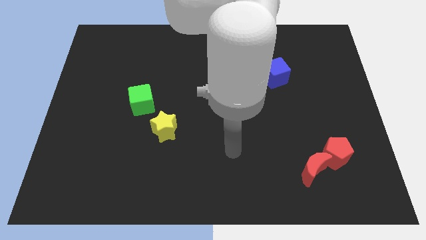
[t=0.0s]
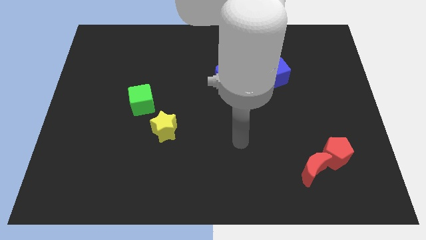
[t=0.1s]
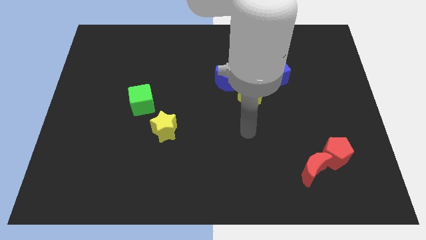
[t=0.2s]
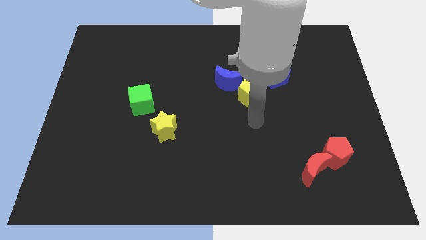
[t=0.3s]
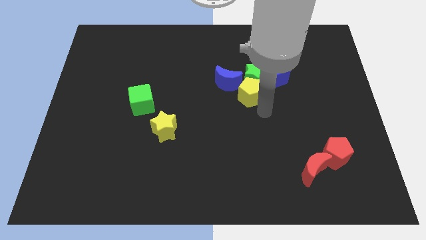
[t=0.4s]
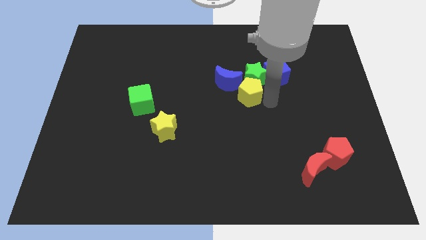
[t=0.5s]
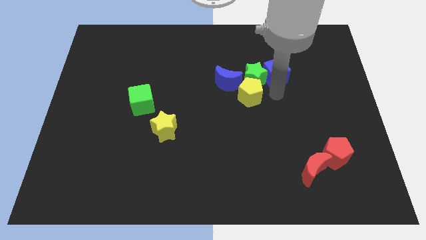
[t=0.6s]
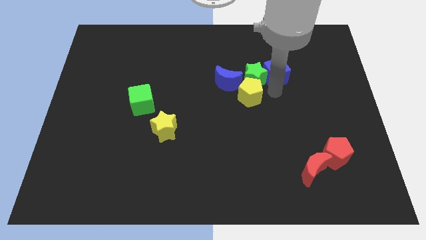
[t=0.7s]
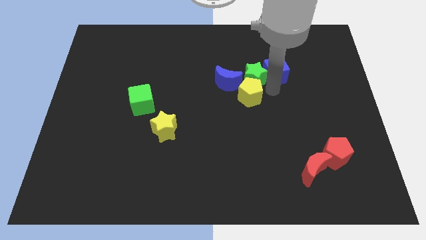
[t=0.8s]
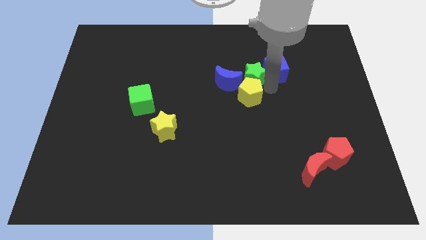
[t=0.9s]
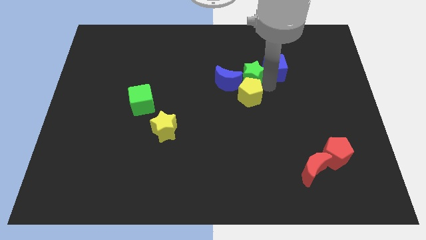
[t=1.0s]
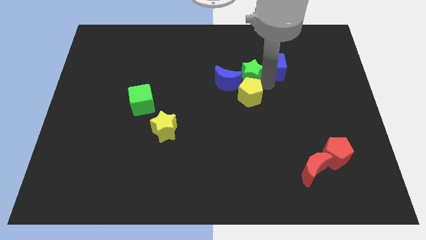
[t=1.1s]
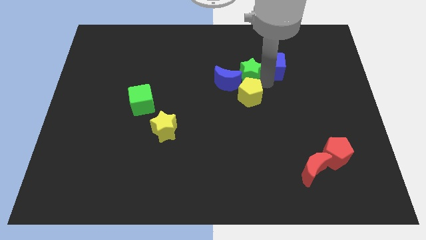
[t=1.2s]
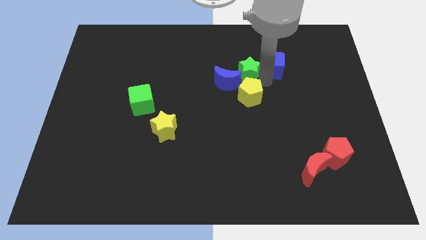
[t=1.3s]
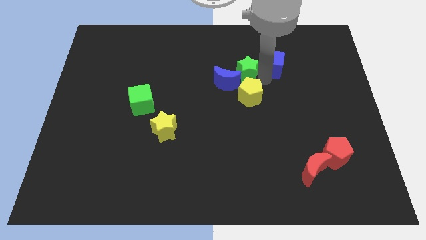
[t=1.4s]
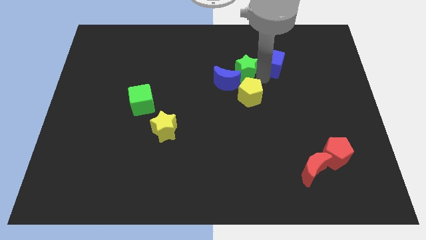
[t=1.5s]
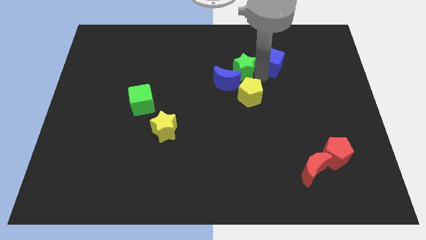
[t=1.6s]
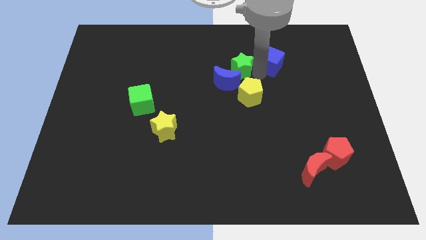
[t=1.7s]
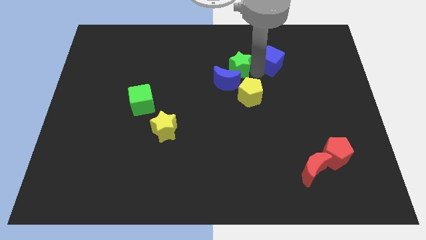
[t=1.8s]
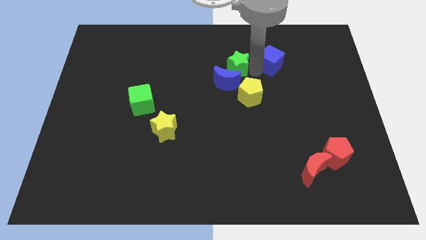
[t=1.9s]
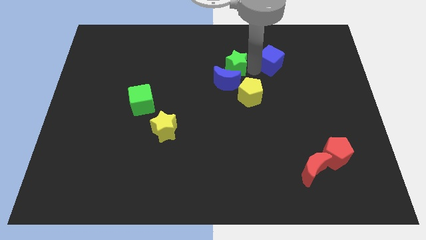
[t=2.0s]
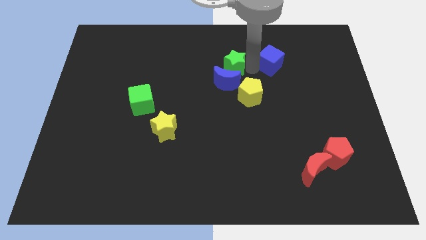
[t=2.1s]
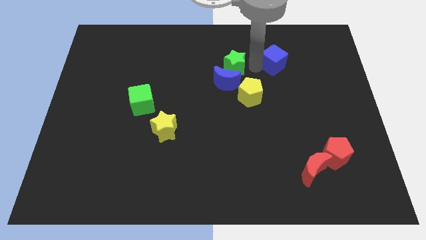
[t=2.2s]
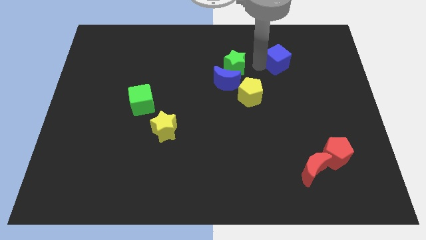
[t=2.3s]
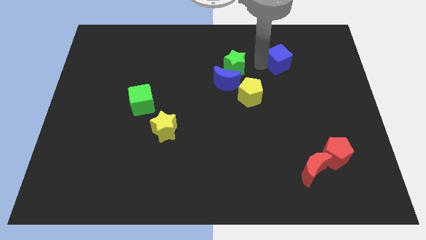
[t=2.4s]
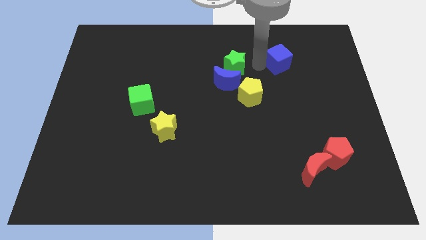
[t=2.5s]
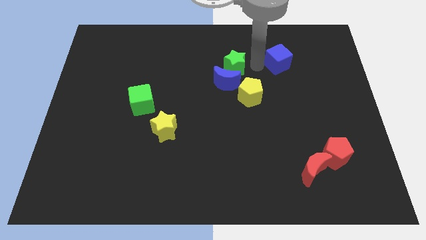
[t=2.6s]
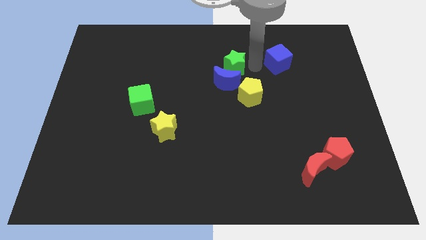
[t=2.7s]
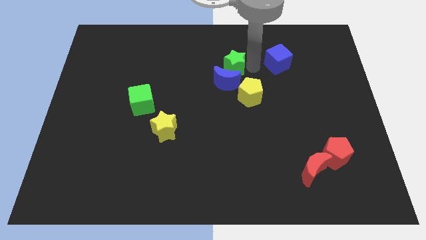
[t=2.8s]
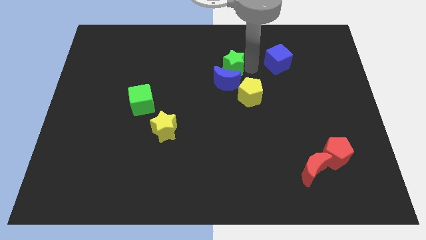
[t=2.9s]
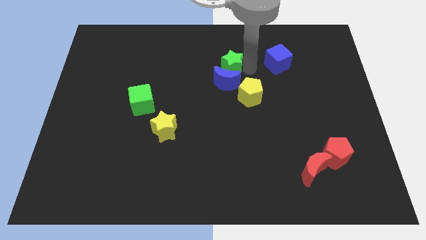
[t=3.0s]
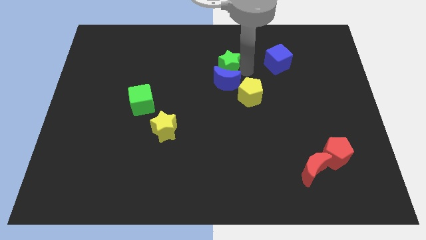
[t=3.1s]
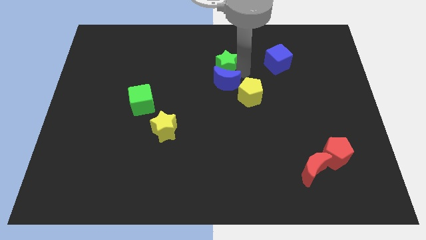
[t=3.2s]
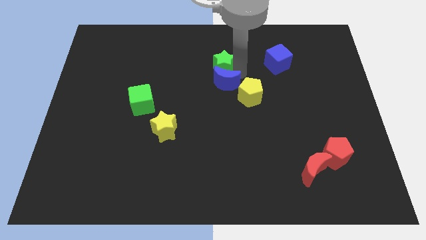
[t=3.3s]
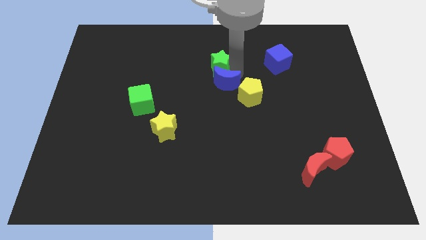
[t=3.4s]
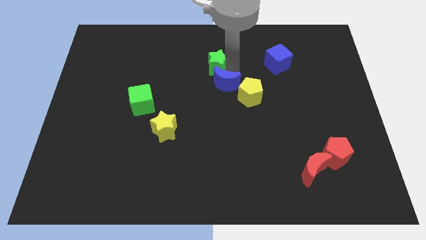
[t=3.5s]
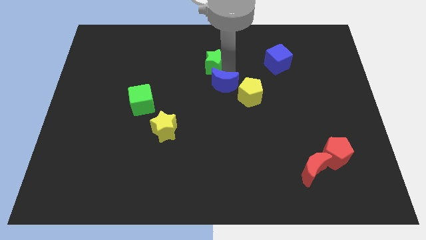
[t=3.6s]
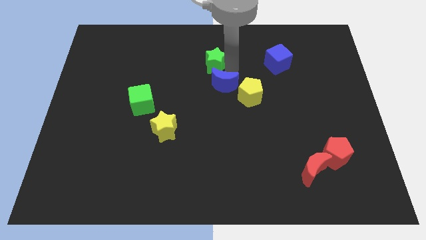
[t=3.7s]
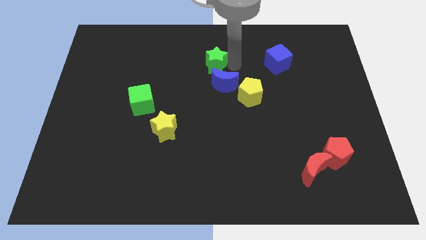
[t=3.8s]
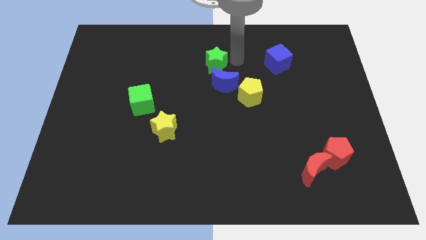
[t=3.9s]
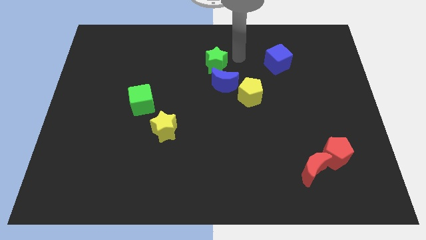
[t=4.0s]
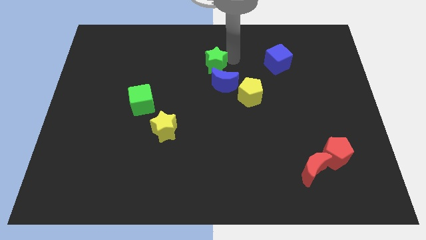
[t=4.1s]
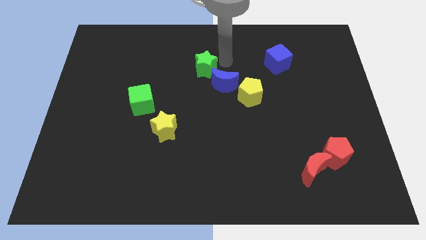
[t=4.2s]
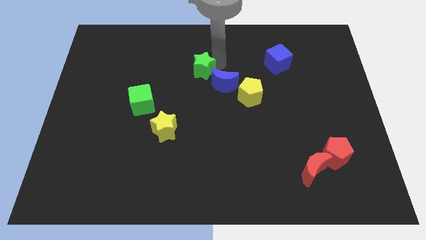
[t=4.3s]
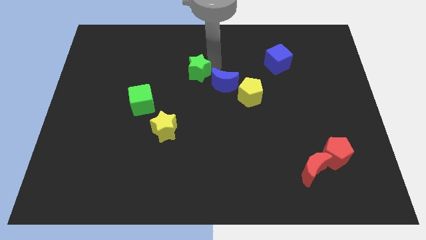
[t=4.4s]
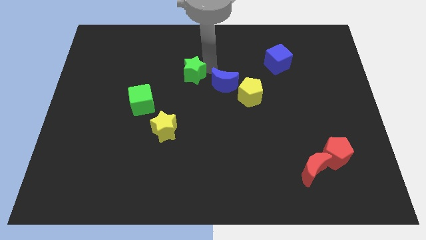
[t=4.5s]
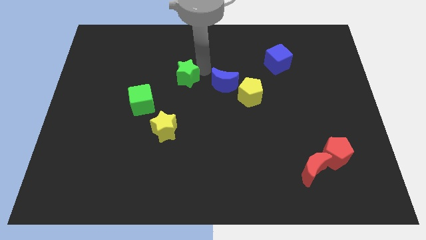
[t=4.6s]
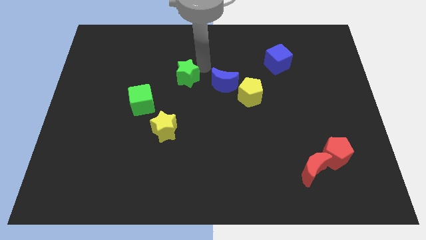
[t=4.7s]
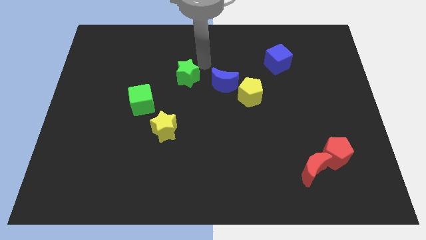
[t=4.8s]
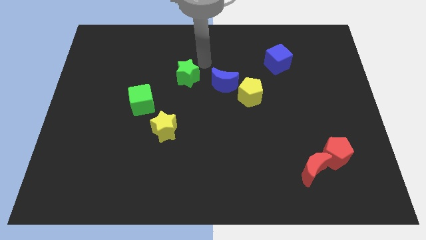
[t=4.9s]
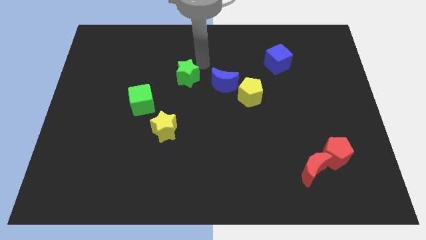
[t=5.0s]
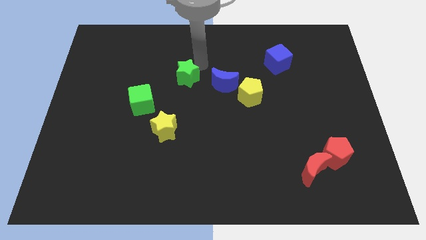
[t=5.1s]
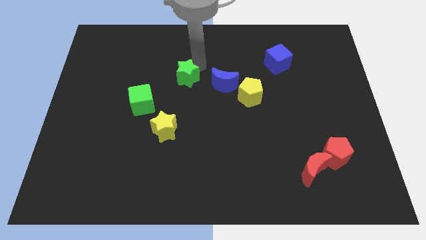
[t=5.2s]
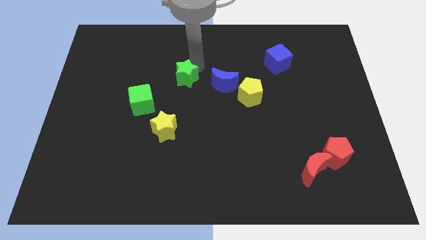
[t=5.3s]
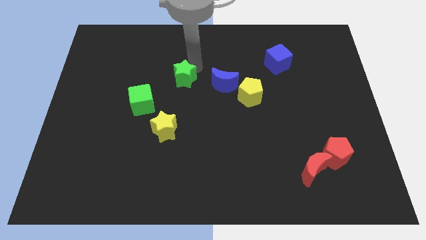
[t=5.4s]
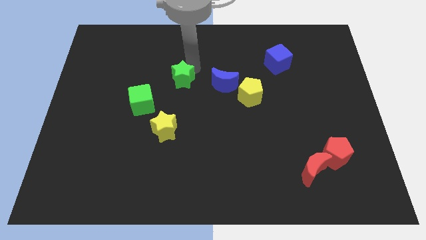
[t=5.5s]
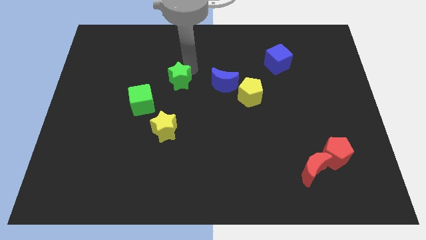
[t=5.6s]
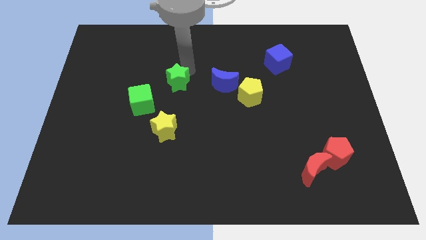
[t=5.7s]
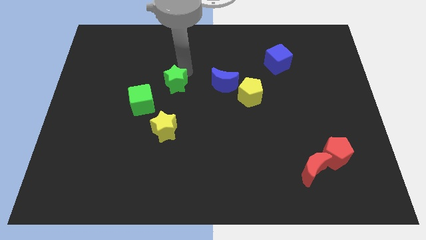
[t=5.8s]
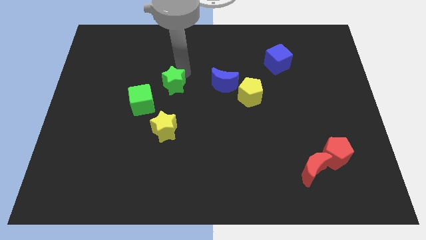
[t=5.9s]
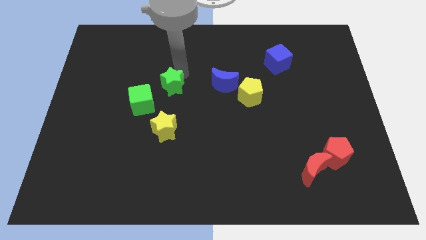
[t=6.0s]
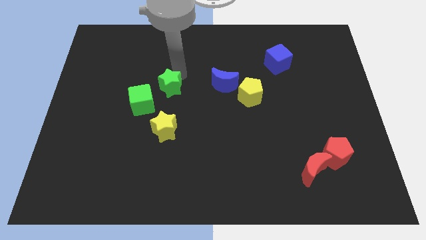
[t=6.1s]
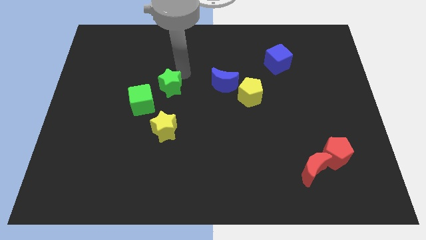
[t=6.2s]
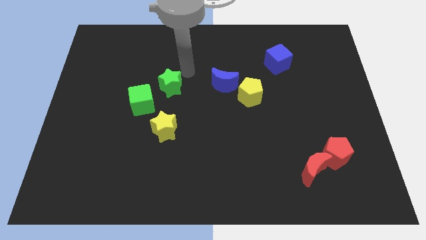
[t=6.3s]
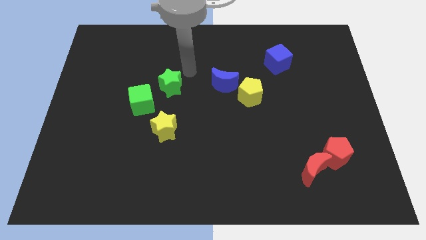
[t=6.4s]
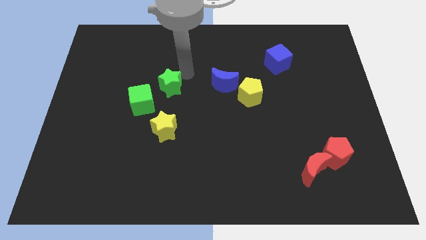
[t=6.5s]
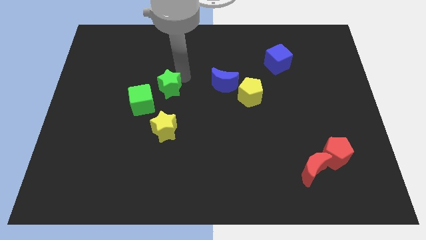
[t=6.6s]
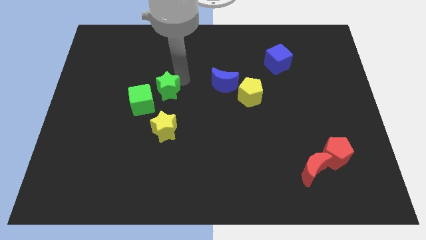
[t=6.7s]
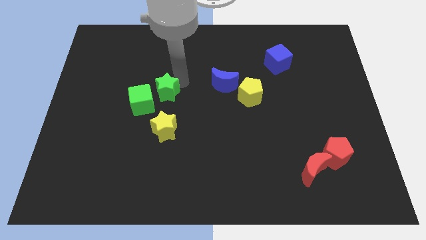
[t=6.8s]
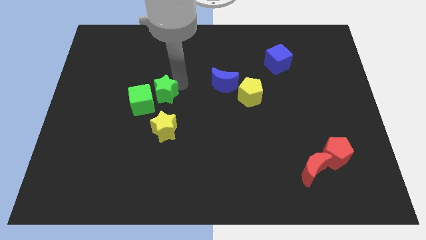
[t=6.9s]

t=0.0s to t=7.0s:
put the green star next to the green cube

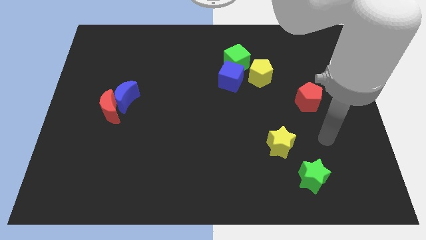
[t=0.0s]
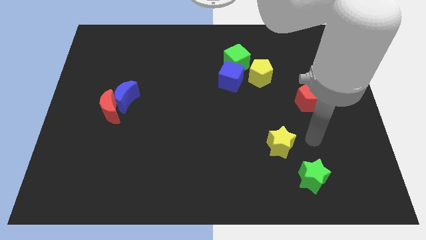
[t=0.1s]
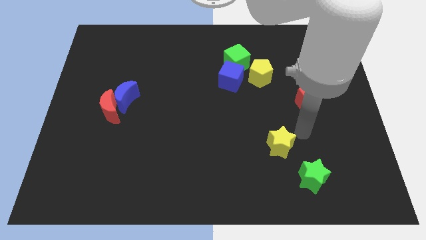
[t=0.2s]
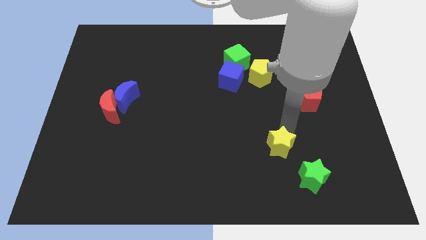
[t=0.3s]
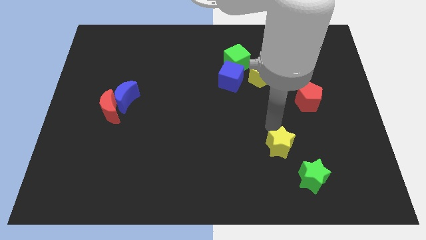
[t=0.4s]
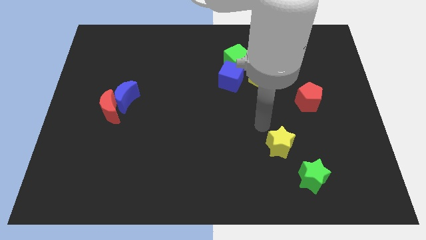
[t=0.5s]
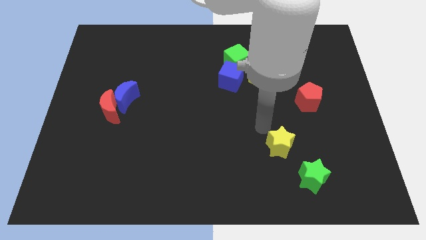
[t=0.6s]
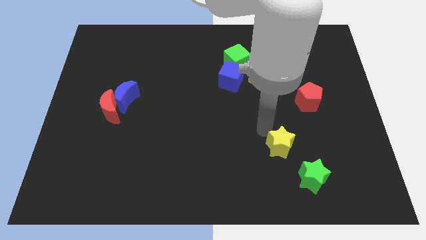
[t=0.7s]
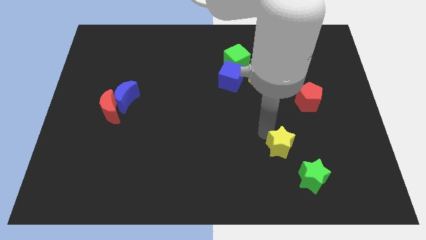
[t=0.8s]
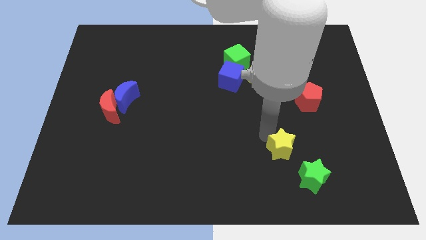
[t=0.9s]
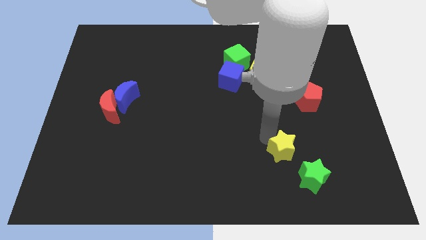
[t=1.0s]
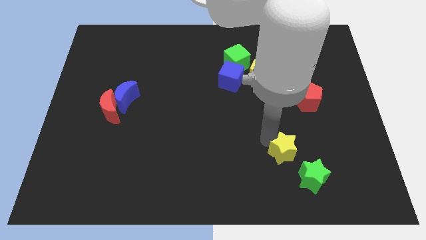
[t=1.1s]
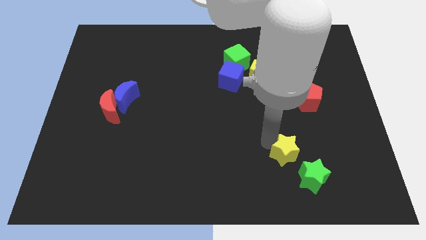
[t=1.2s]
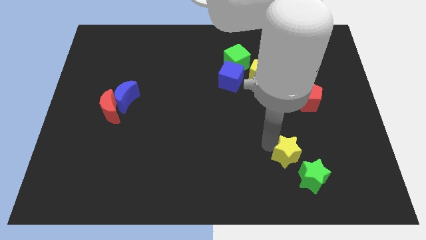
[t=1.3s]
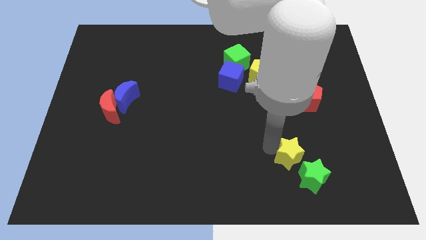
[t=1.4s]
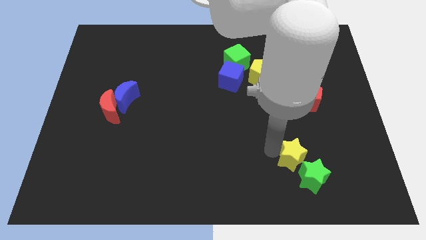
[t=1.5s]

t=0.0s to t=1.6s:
put the yellow star towards the green star
